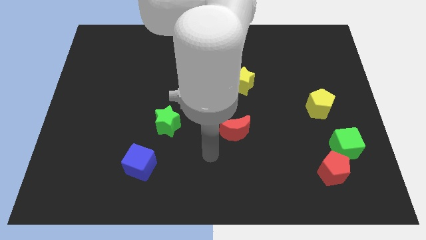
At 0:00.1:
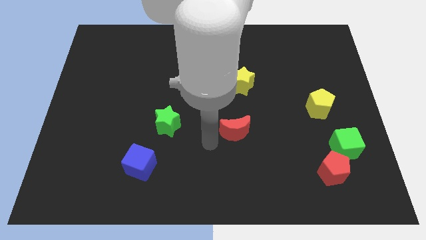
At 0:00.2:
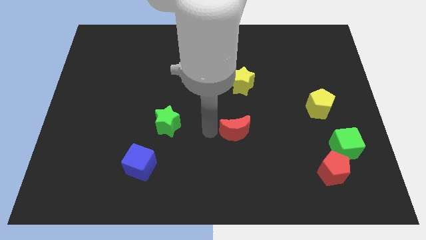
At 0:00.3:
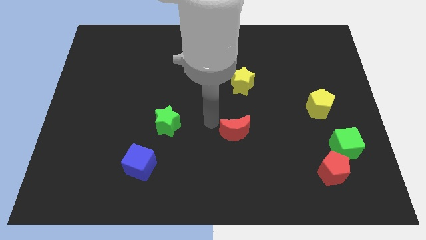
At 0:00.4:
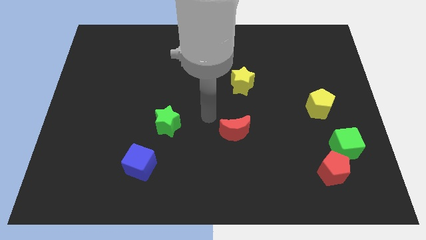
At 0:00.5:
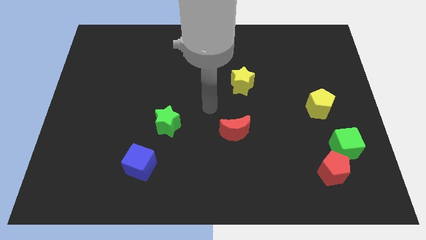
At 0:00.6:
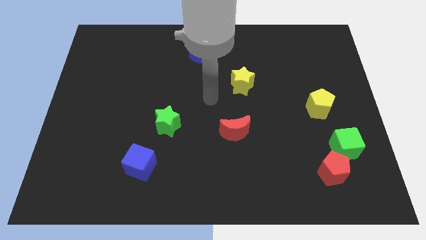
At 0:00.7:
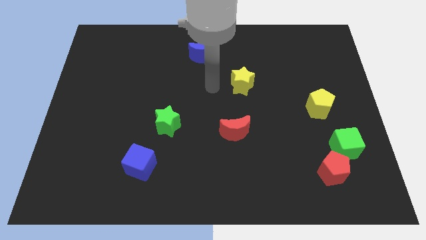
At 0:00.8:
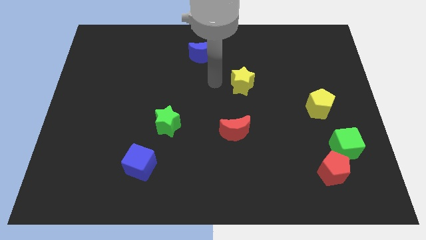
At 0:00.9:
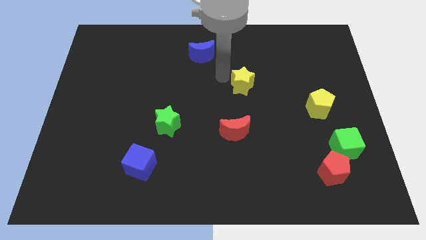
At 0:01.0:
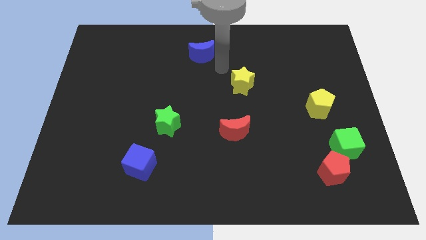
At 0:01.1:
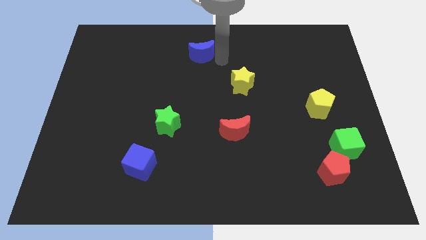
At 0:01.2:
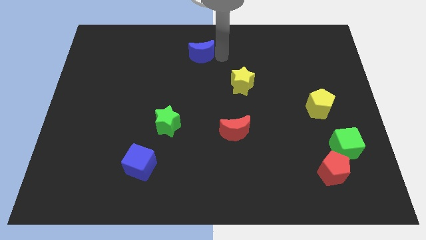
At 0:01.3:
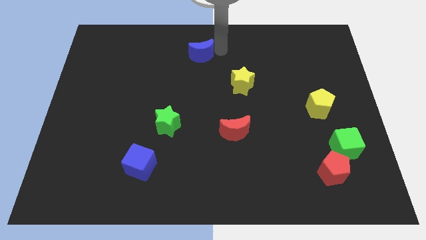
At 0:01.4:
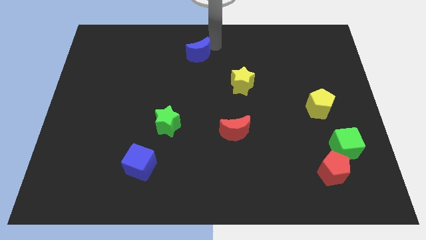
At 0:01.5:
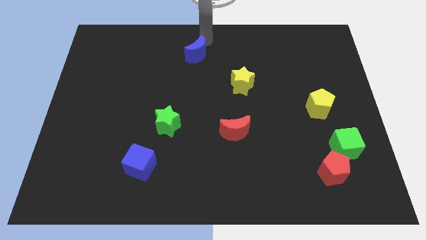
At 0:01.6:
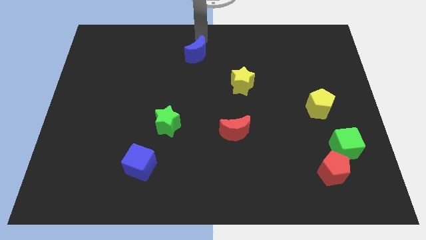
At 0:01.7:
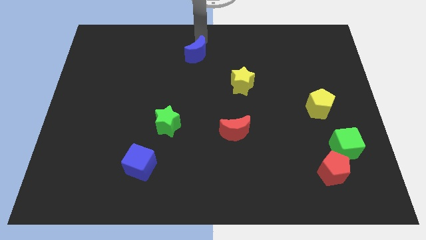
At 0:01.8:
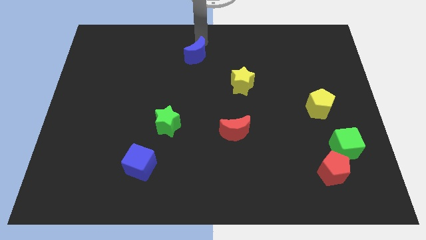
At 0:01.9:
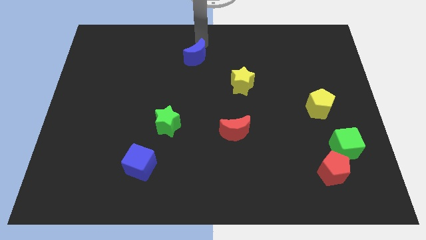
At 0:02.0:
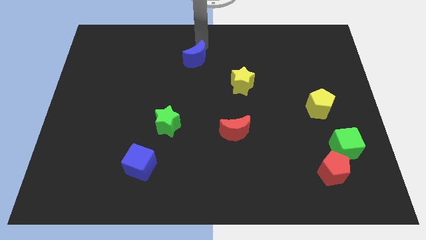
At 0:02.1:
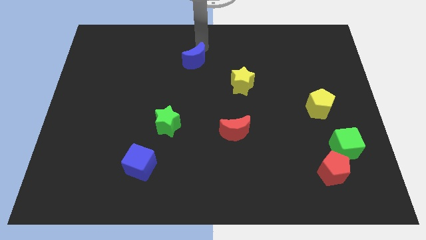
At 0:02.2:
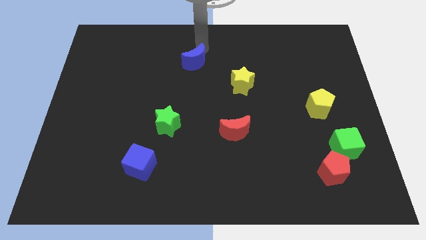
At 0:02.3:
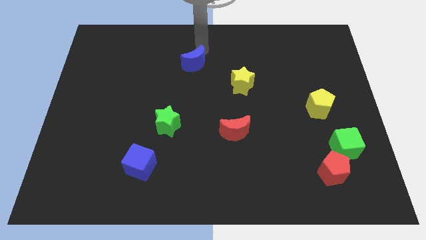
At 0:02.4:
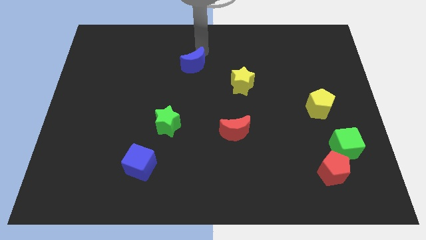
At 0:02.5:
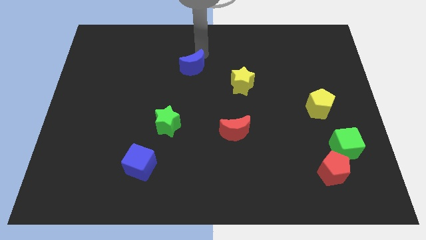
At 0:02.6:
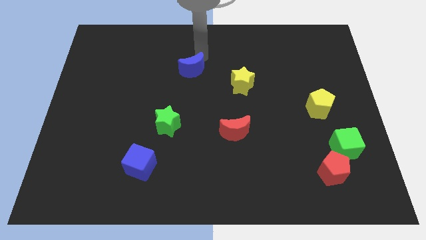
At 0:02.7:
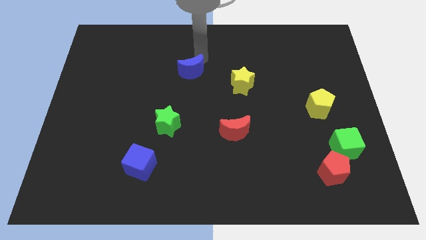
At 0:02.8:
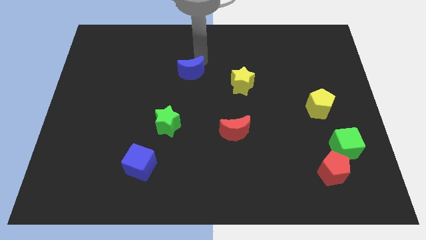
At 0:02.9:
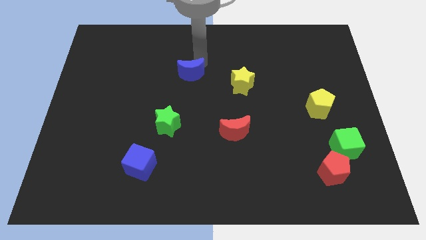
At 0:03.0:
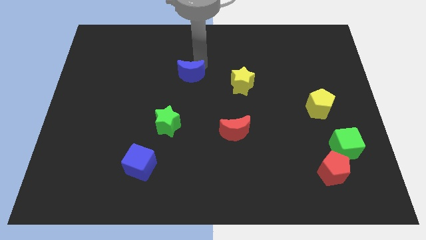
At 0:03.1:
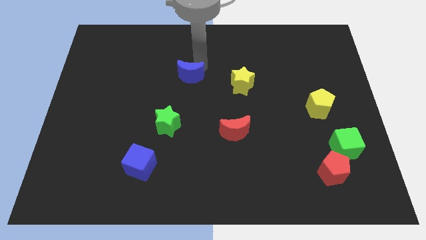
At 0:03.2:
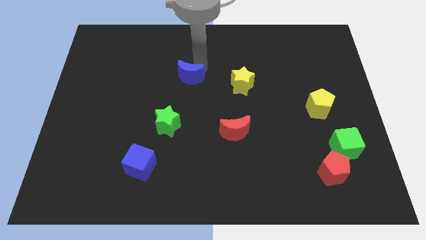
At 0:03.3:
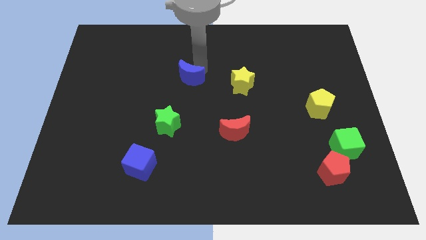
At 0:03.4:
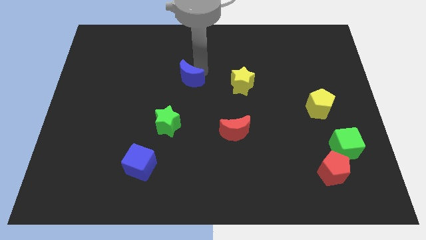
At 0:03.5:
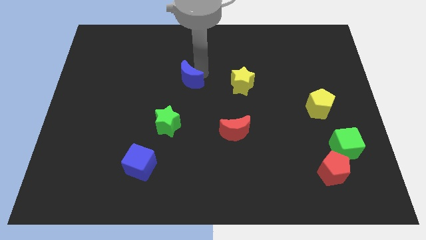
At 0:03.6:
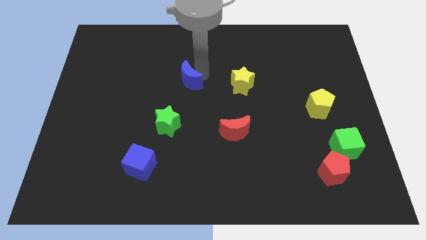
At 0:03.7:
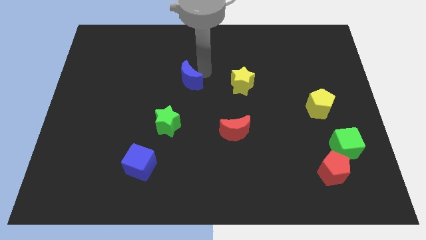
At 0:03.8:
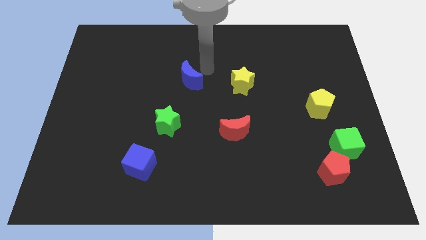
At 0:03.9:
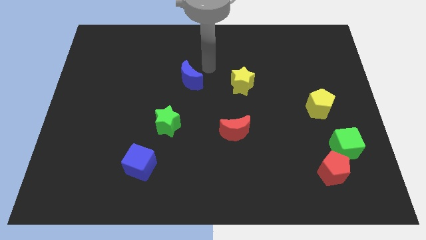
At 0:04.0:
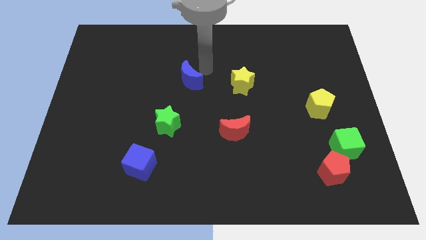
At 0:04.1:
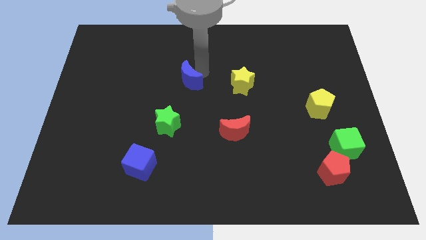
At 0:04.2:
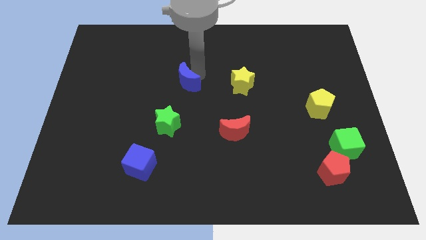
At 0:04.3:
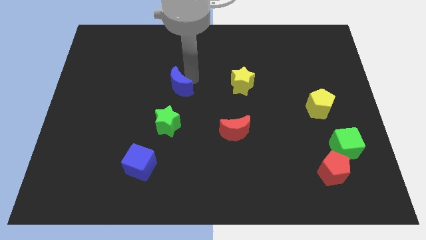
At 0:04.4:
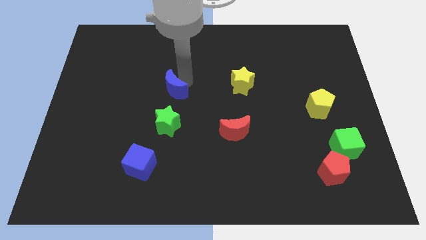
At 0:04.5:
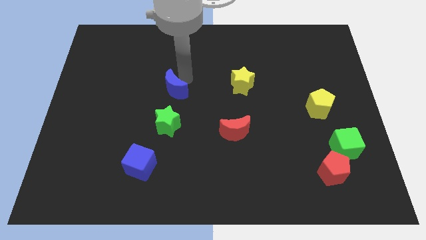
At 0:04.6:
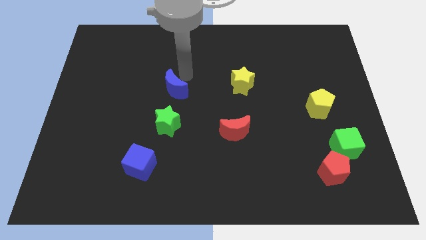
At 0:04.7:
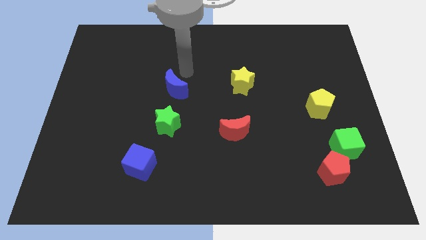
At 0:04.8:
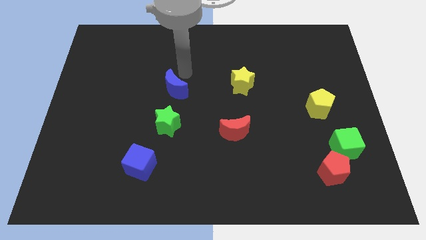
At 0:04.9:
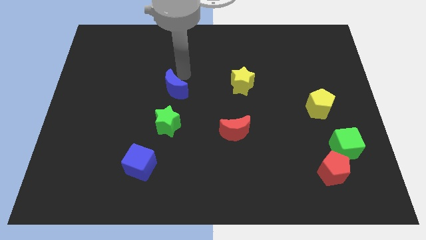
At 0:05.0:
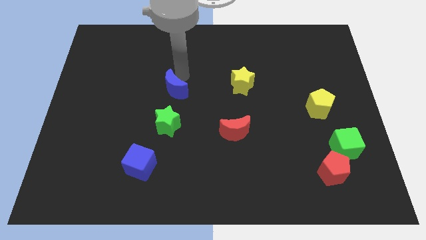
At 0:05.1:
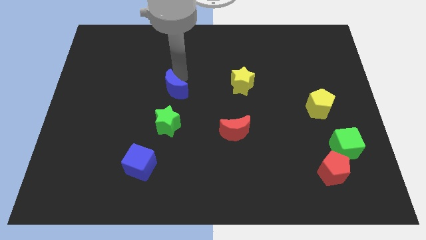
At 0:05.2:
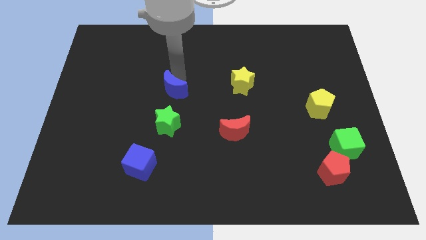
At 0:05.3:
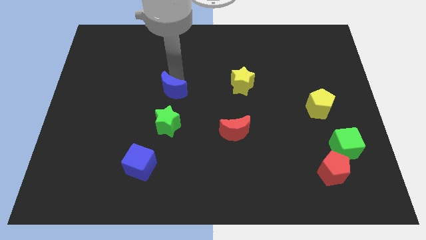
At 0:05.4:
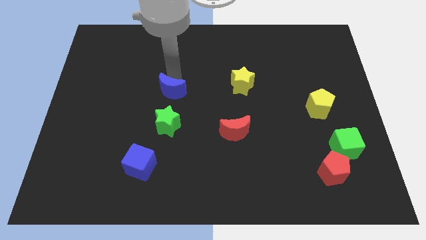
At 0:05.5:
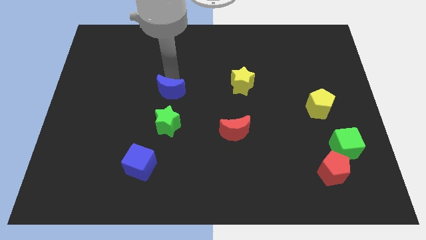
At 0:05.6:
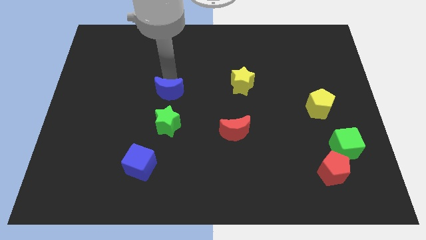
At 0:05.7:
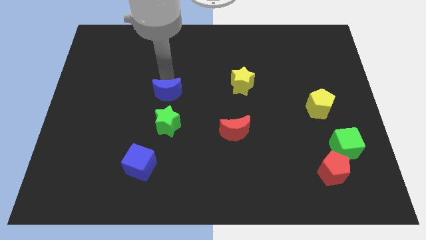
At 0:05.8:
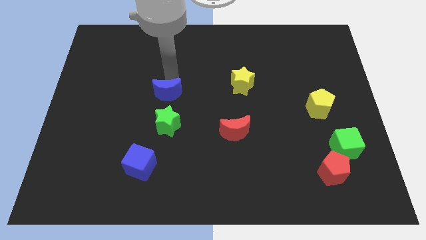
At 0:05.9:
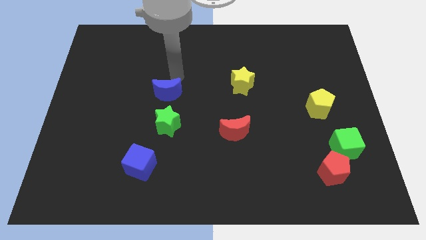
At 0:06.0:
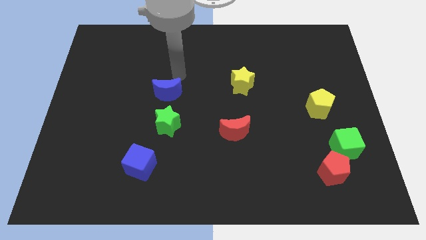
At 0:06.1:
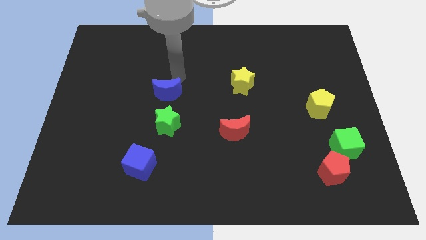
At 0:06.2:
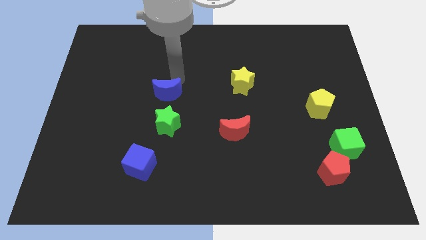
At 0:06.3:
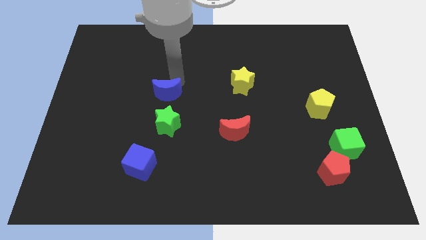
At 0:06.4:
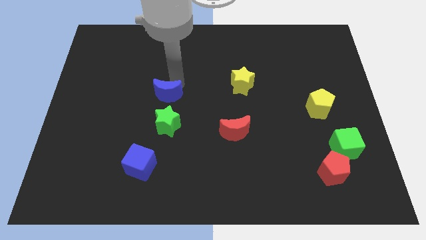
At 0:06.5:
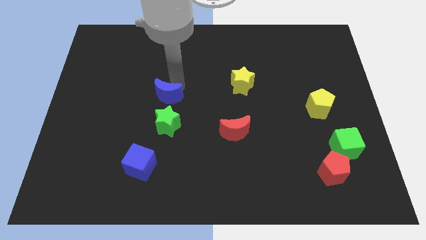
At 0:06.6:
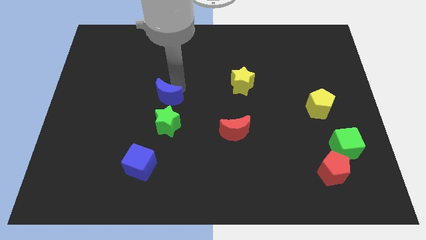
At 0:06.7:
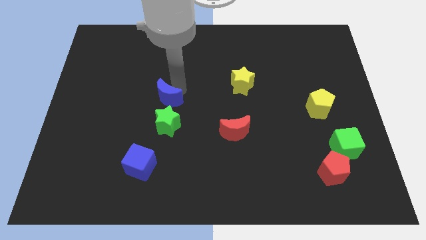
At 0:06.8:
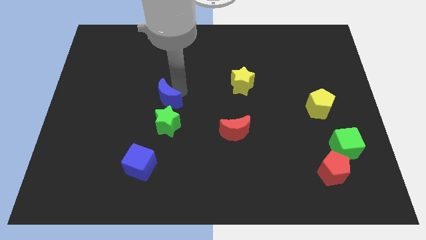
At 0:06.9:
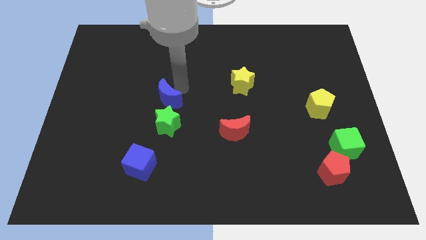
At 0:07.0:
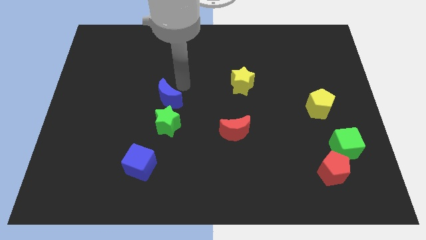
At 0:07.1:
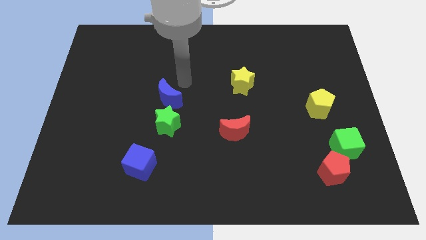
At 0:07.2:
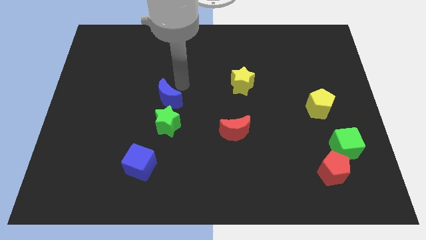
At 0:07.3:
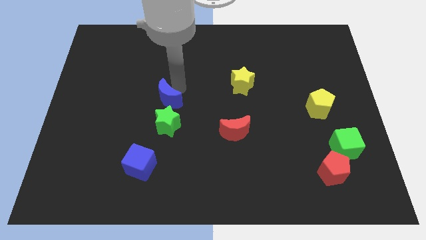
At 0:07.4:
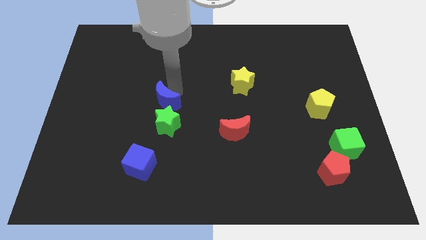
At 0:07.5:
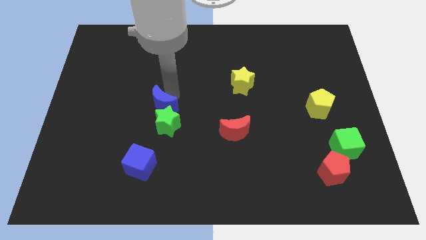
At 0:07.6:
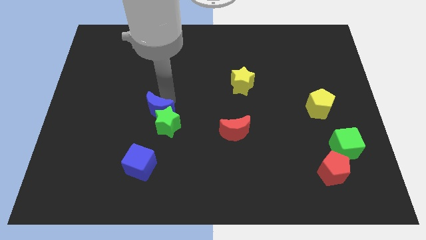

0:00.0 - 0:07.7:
move the blue moon to the top side of the blue cube
